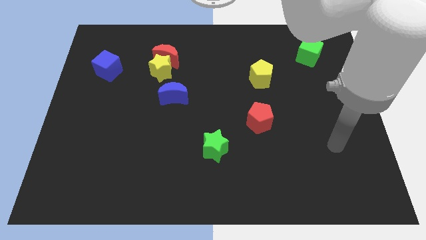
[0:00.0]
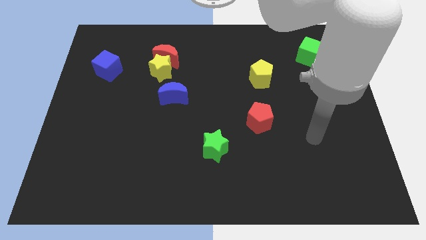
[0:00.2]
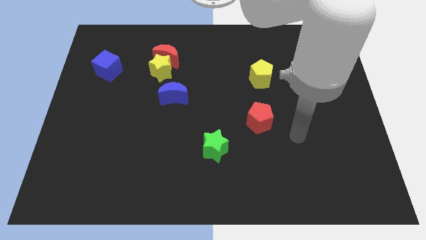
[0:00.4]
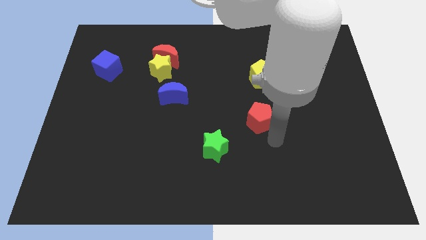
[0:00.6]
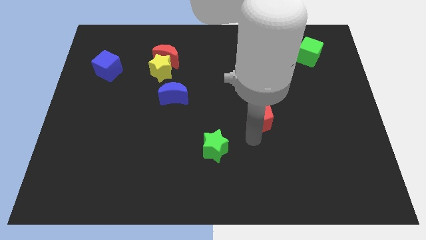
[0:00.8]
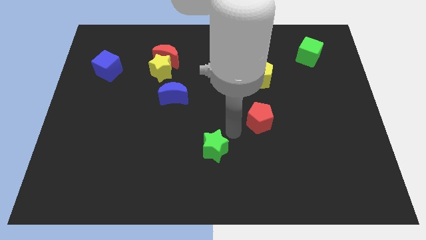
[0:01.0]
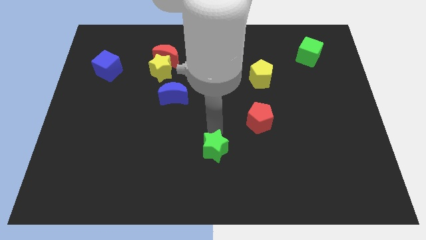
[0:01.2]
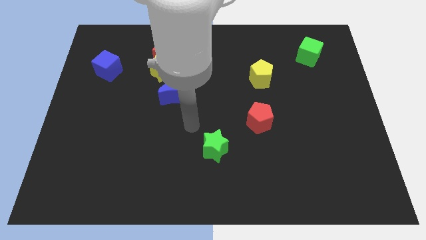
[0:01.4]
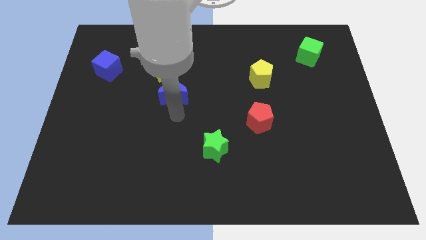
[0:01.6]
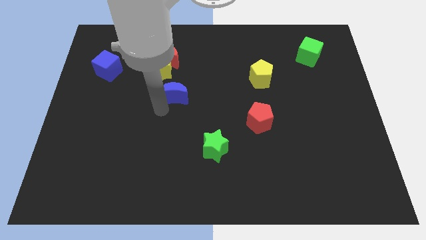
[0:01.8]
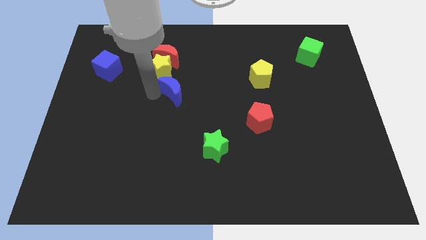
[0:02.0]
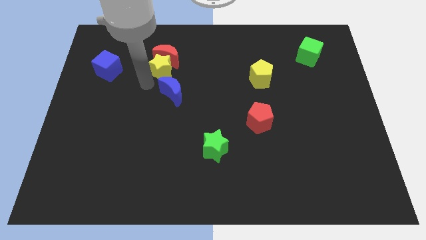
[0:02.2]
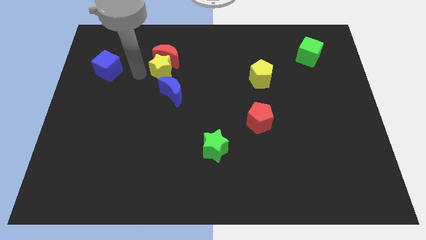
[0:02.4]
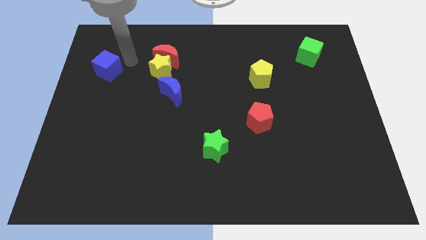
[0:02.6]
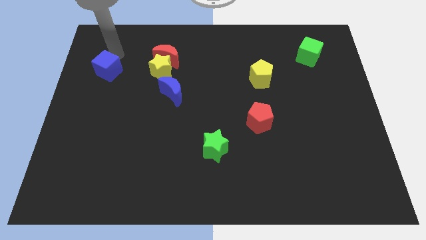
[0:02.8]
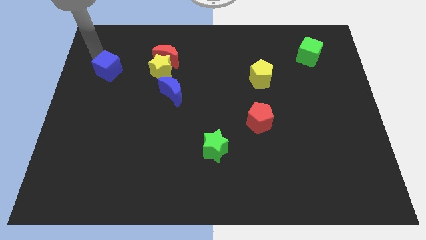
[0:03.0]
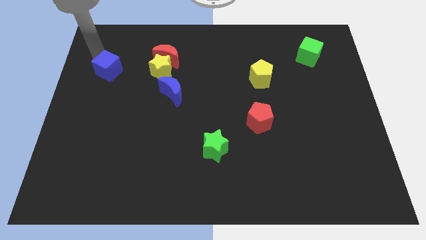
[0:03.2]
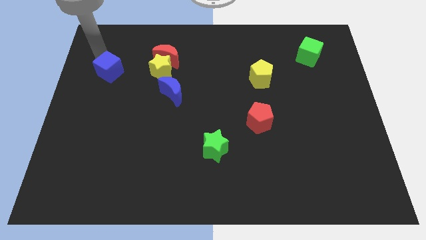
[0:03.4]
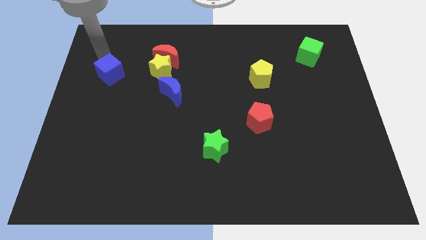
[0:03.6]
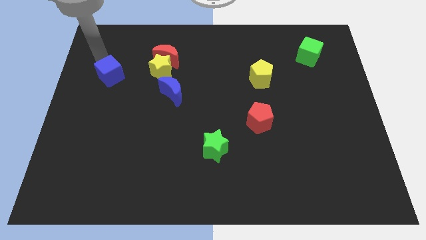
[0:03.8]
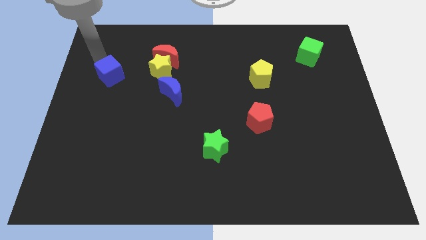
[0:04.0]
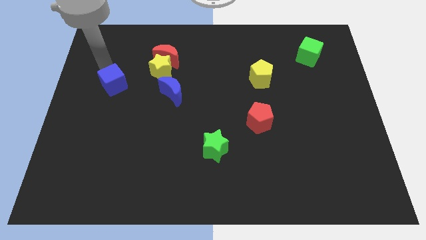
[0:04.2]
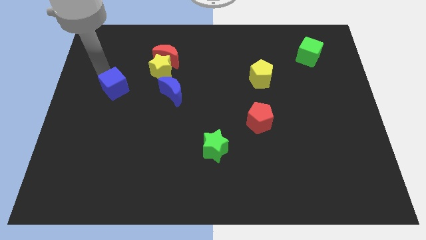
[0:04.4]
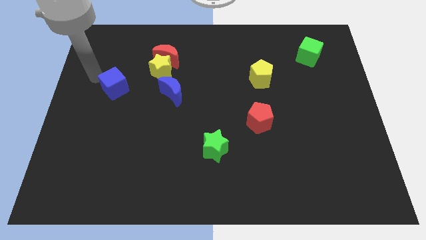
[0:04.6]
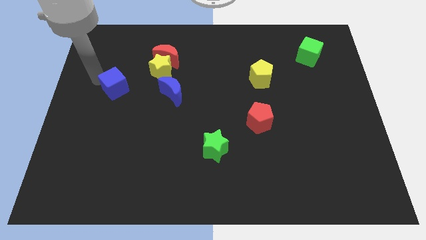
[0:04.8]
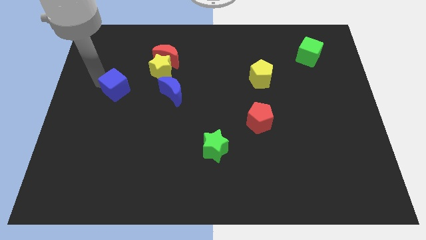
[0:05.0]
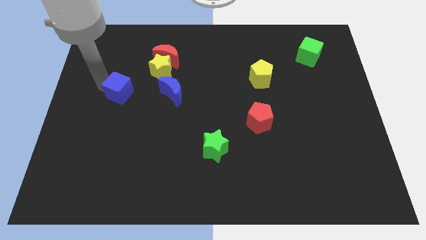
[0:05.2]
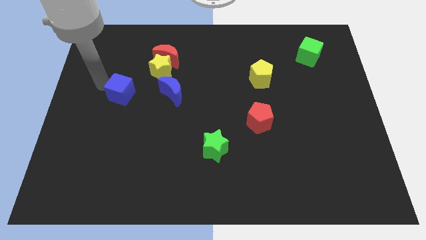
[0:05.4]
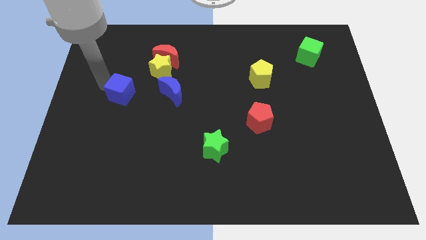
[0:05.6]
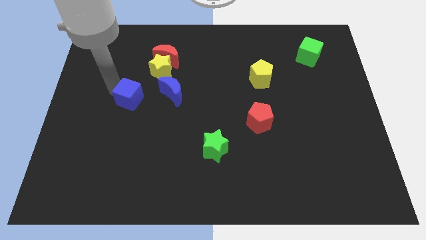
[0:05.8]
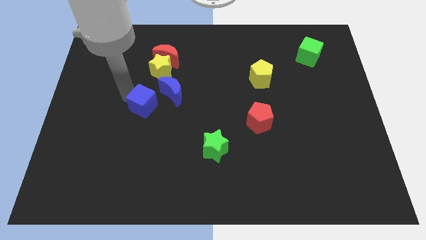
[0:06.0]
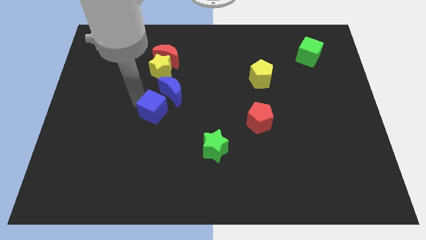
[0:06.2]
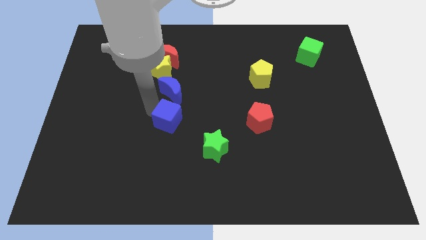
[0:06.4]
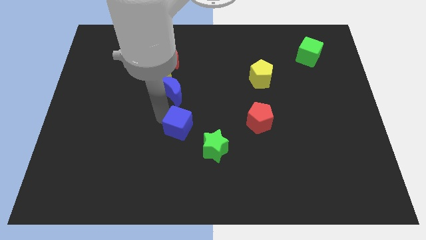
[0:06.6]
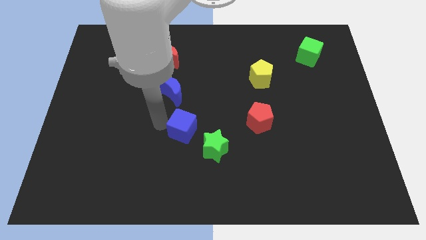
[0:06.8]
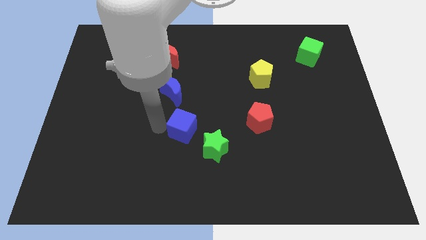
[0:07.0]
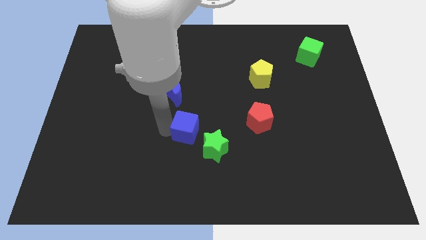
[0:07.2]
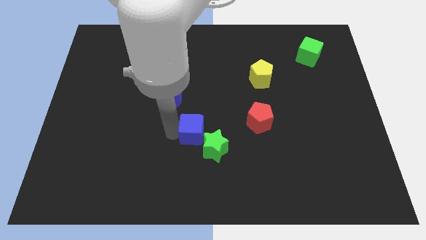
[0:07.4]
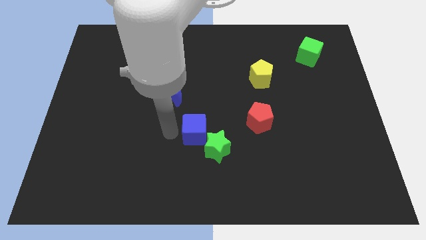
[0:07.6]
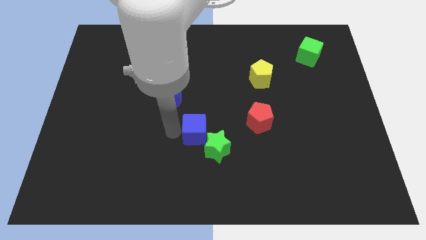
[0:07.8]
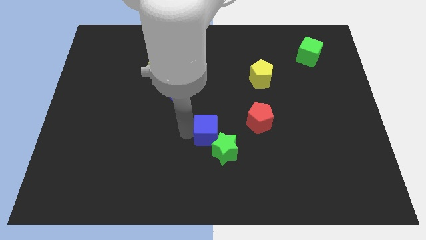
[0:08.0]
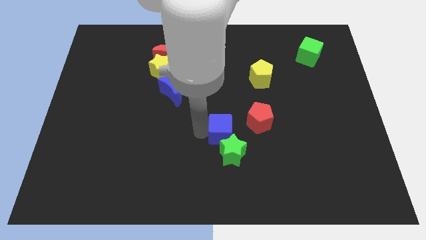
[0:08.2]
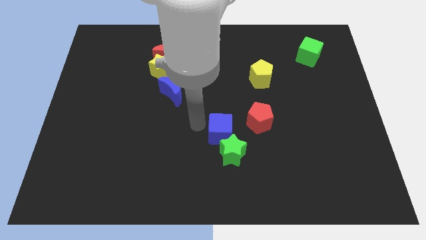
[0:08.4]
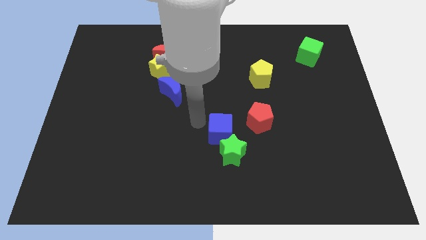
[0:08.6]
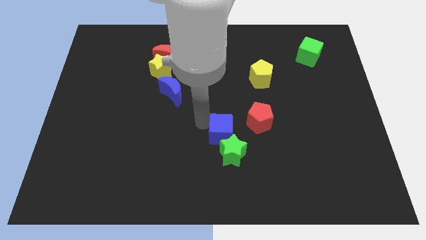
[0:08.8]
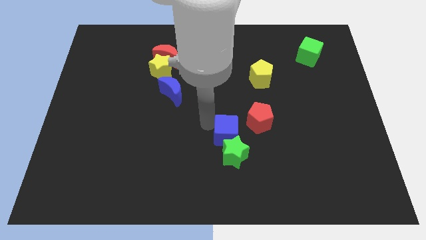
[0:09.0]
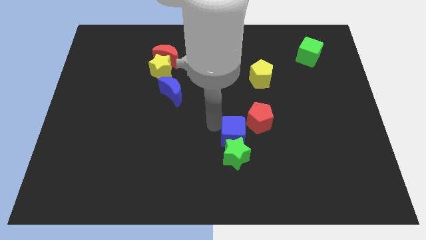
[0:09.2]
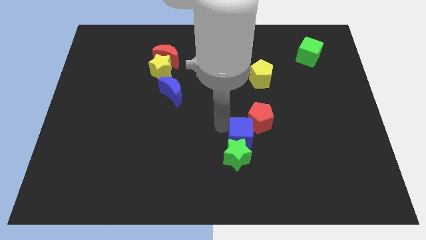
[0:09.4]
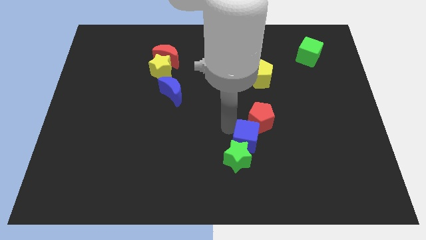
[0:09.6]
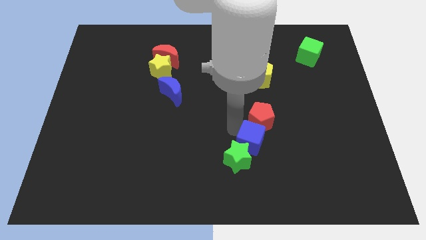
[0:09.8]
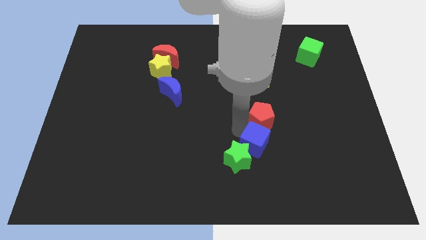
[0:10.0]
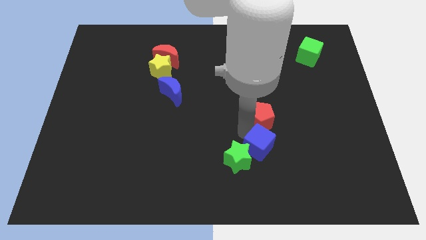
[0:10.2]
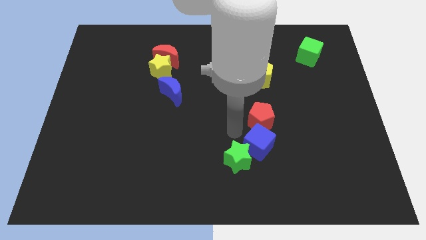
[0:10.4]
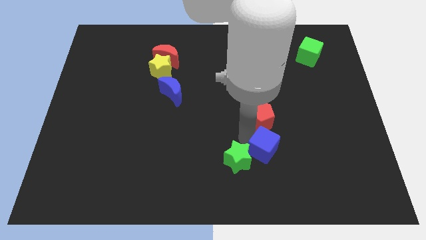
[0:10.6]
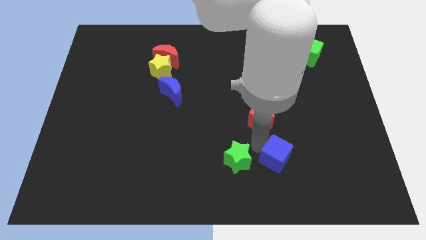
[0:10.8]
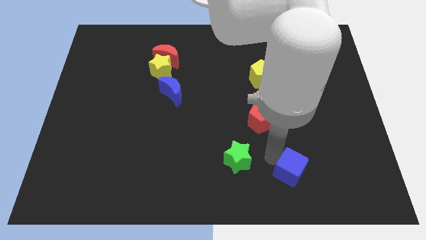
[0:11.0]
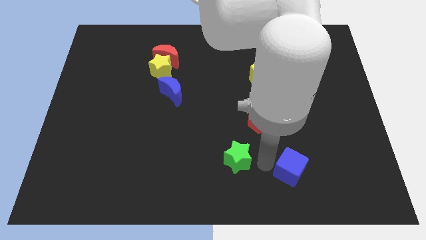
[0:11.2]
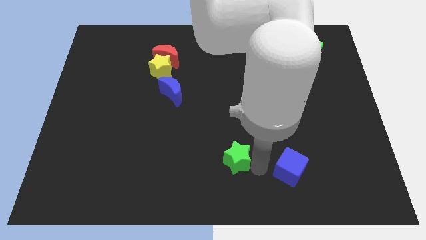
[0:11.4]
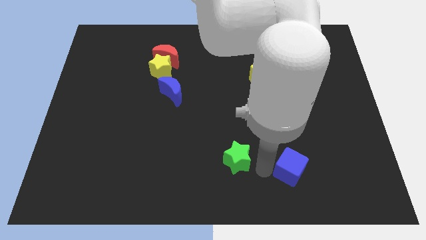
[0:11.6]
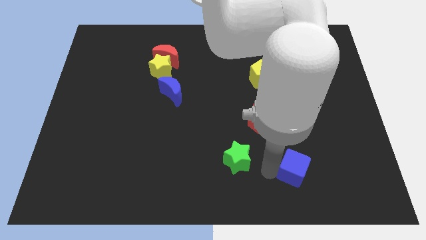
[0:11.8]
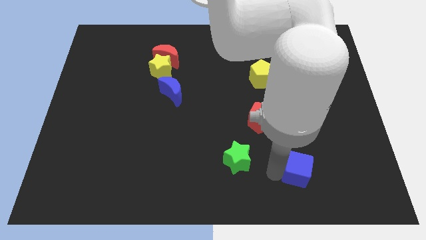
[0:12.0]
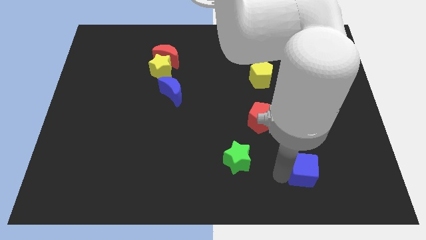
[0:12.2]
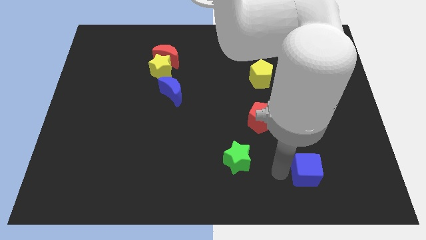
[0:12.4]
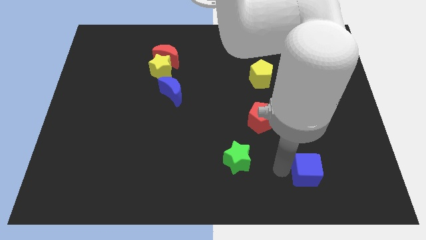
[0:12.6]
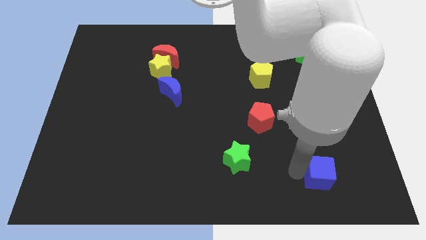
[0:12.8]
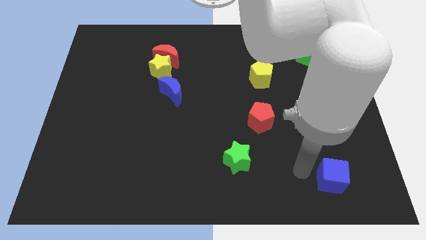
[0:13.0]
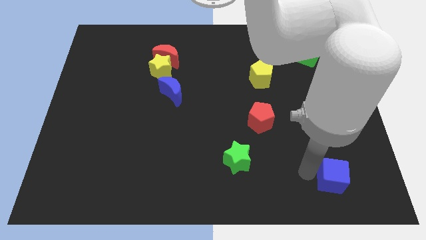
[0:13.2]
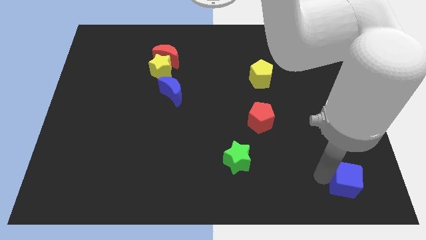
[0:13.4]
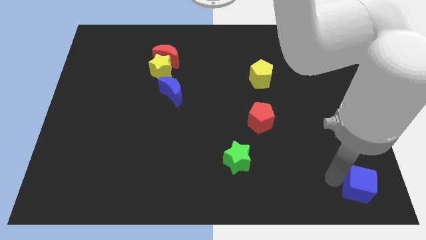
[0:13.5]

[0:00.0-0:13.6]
slide the blue cube to the bottom right of the board
